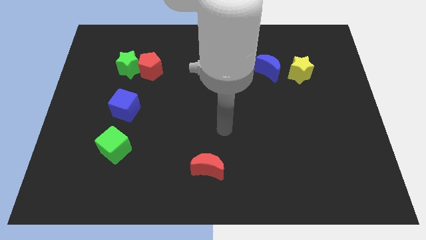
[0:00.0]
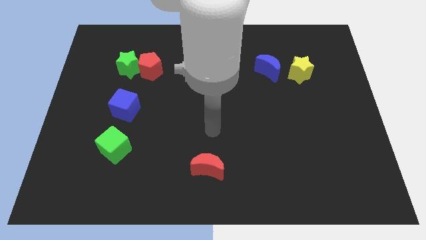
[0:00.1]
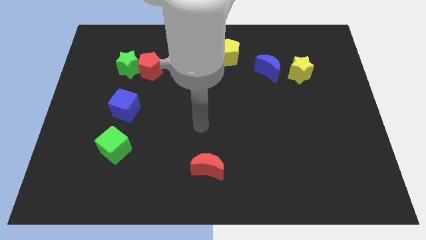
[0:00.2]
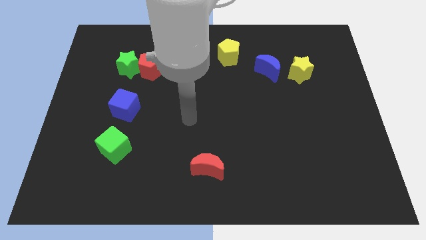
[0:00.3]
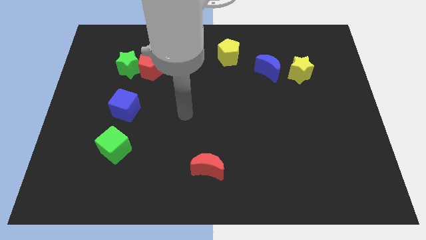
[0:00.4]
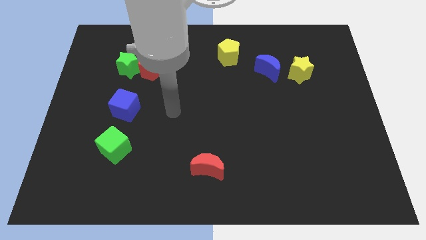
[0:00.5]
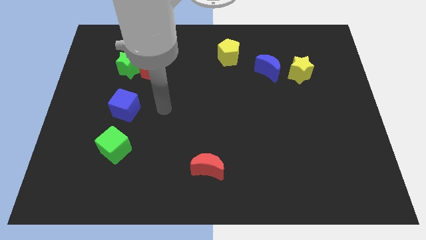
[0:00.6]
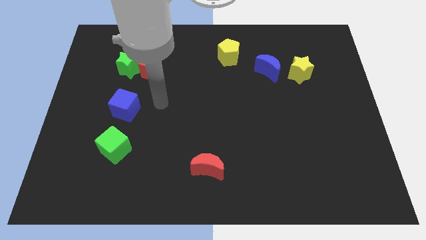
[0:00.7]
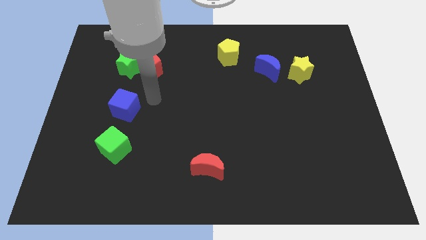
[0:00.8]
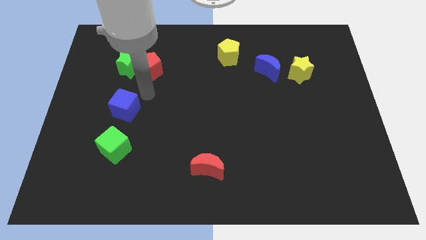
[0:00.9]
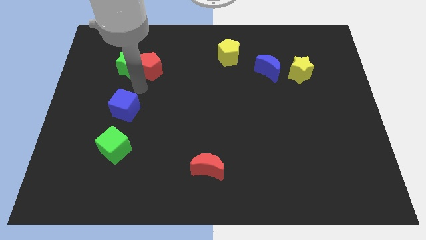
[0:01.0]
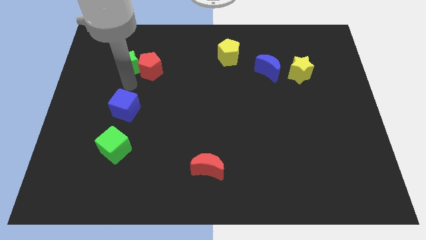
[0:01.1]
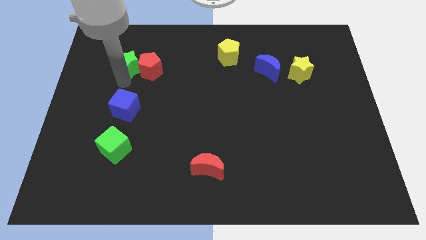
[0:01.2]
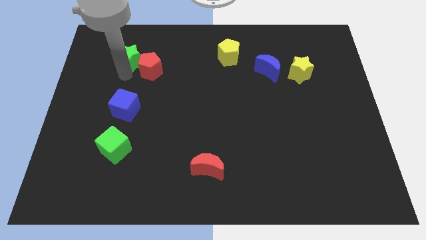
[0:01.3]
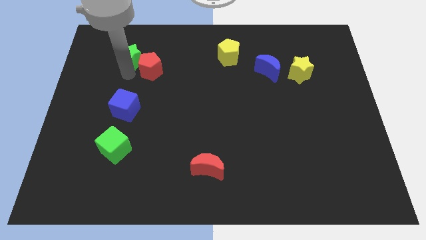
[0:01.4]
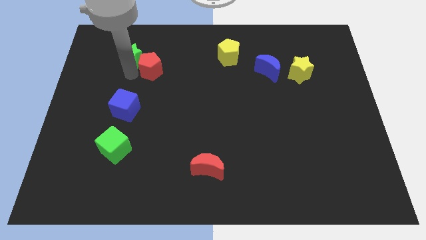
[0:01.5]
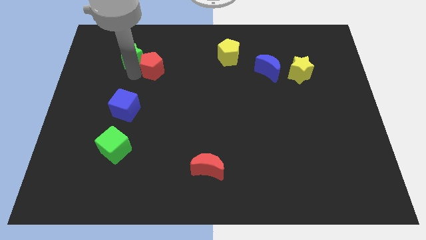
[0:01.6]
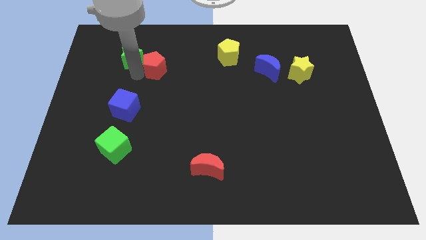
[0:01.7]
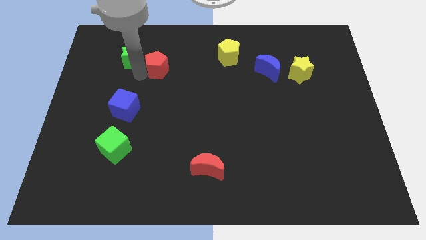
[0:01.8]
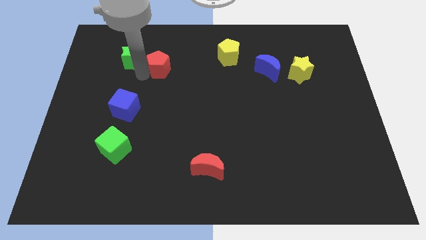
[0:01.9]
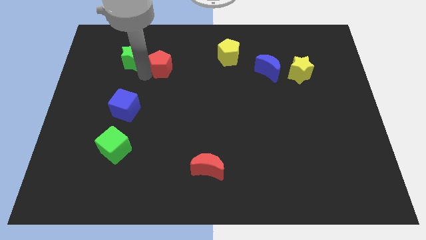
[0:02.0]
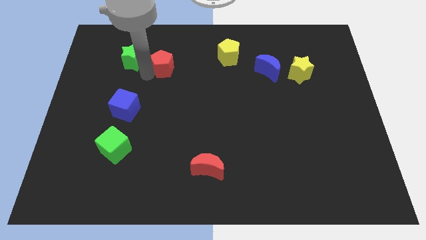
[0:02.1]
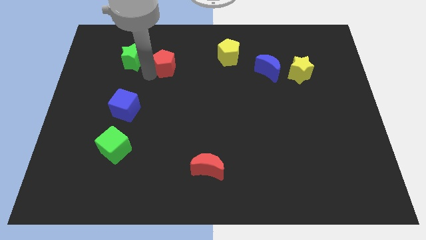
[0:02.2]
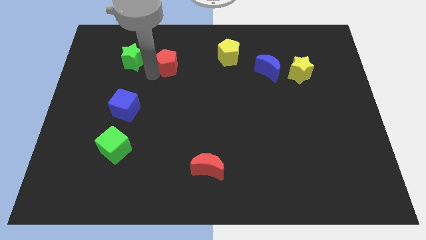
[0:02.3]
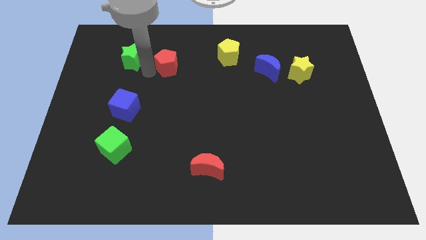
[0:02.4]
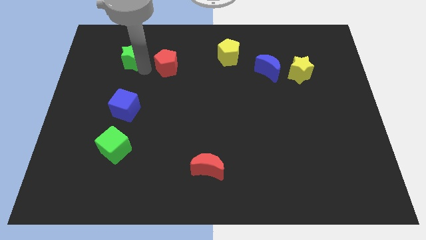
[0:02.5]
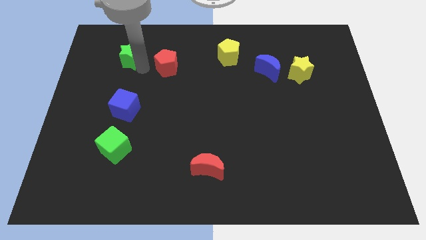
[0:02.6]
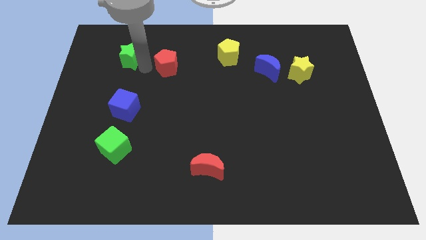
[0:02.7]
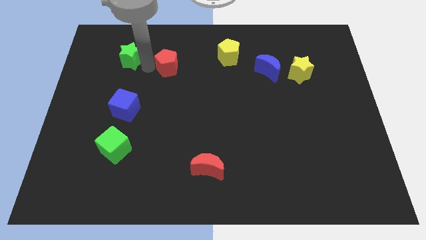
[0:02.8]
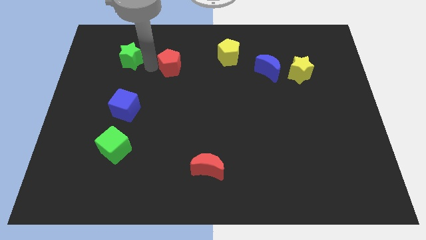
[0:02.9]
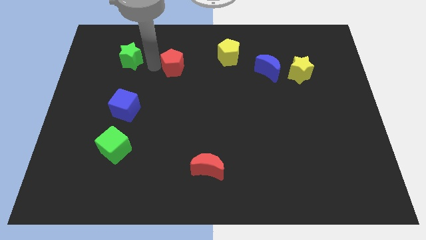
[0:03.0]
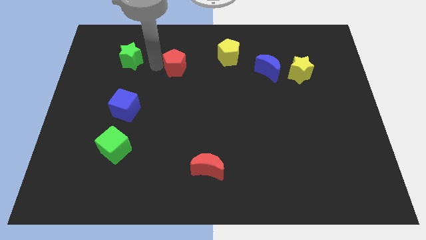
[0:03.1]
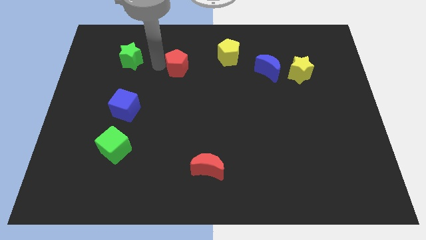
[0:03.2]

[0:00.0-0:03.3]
slide the red pentagon right slightly

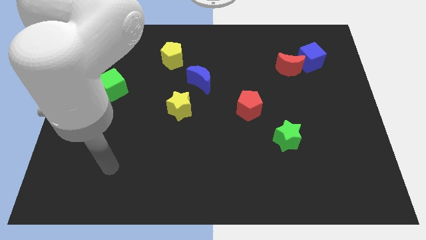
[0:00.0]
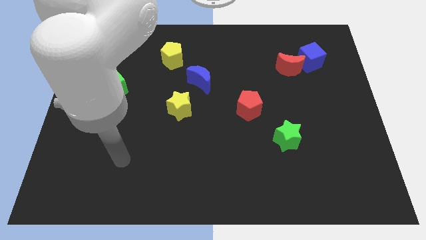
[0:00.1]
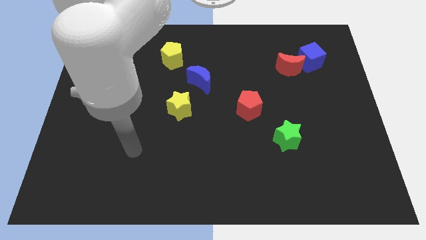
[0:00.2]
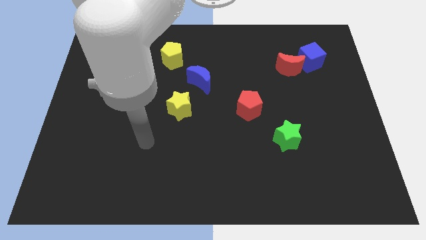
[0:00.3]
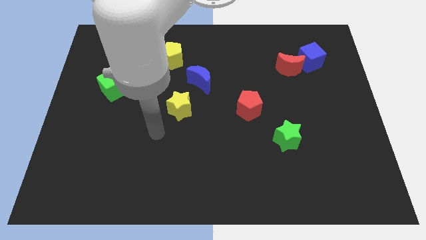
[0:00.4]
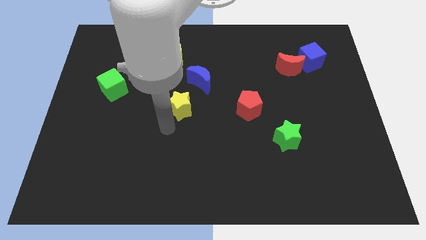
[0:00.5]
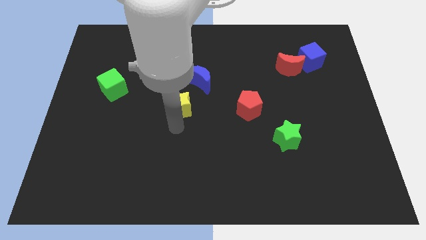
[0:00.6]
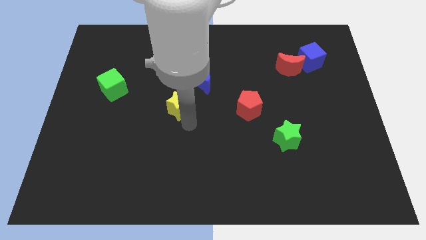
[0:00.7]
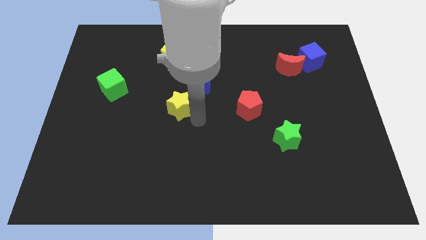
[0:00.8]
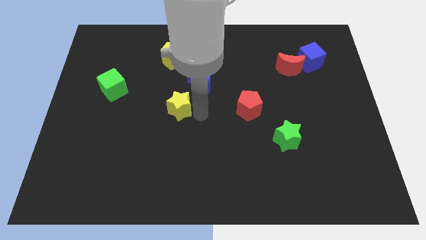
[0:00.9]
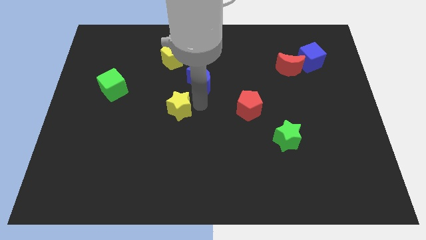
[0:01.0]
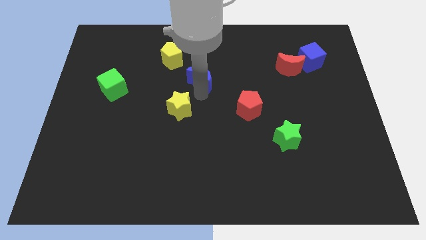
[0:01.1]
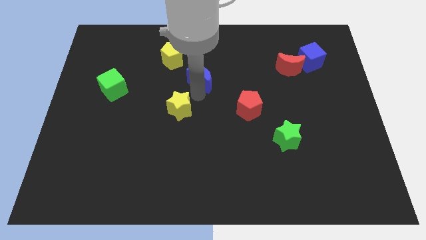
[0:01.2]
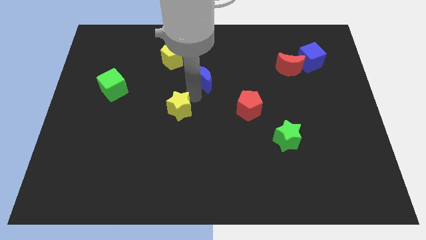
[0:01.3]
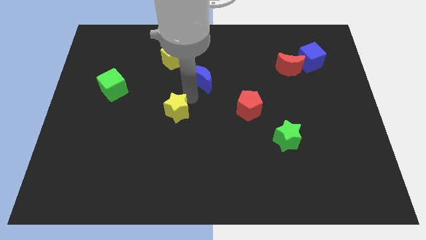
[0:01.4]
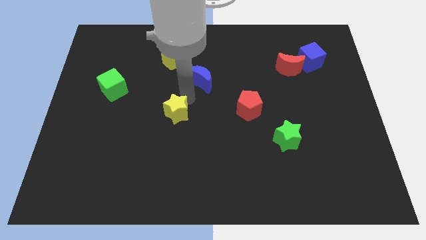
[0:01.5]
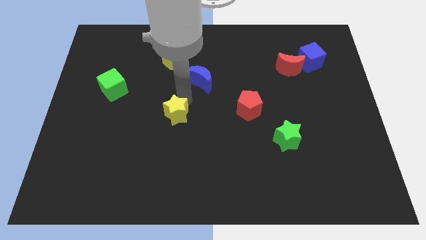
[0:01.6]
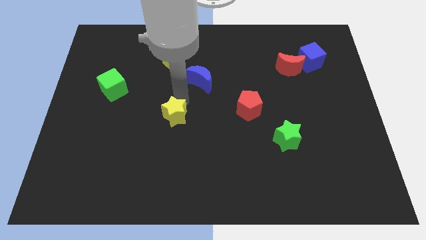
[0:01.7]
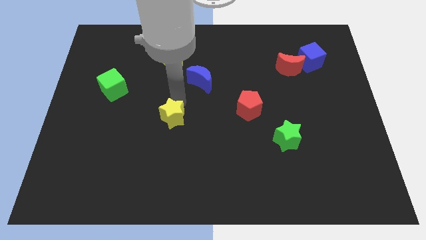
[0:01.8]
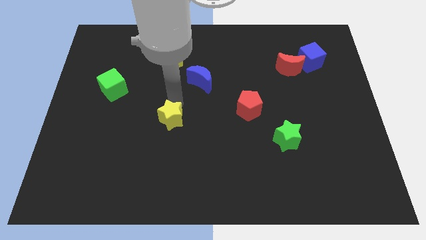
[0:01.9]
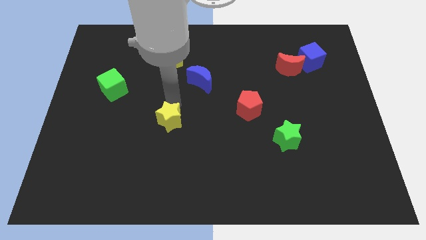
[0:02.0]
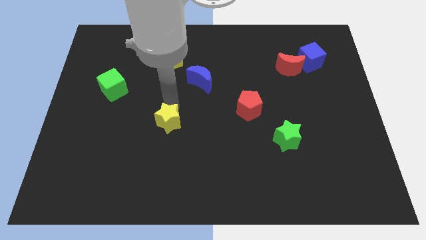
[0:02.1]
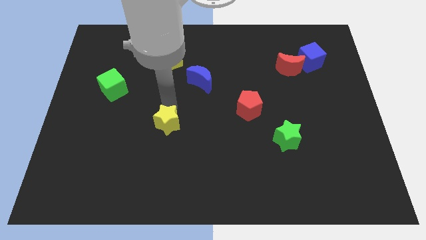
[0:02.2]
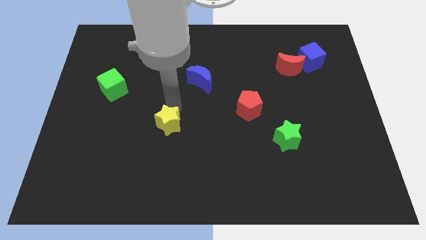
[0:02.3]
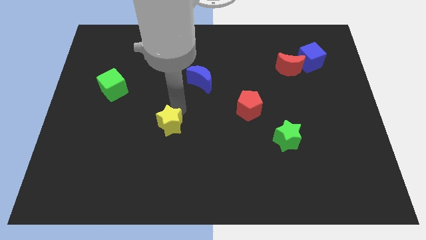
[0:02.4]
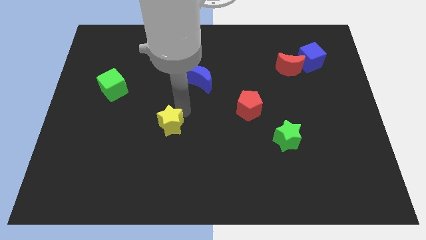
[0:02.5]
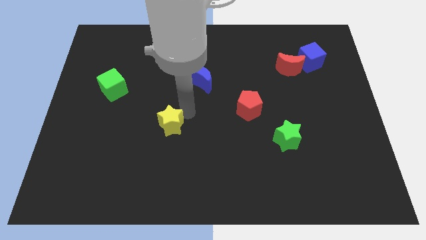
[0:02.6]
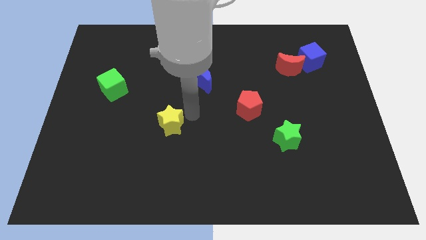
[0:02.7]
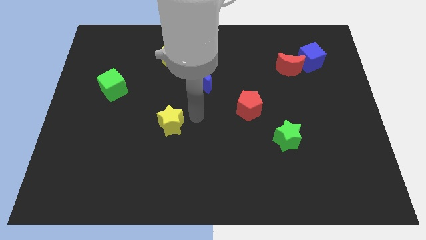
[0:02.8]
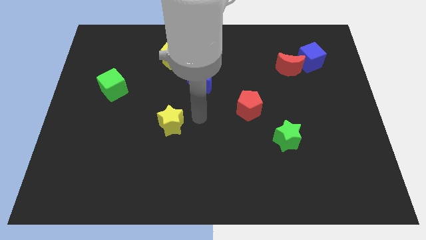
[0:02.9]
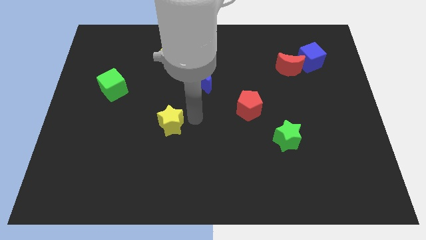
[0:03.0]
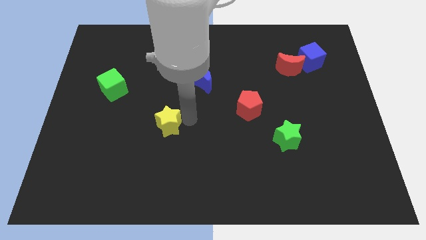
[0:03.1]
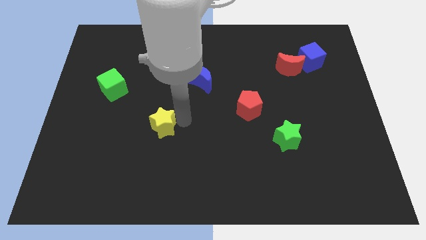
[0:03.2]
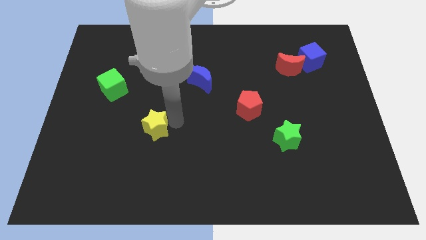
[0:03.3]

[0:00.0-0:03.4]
move the yellow star diagonally downwards and to the left a bit

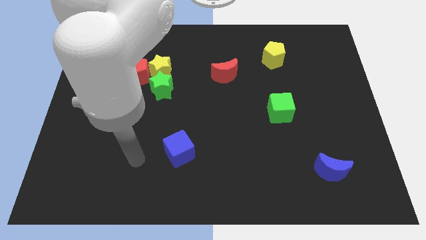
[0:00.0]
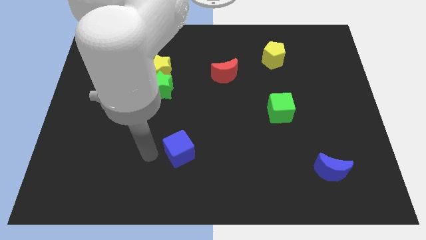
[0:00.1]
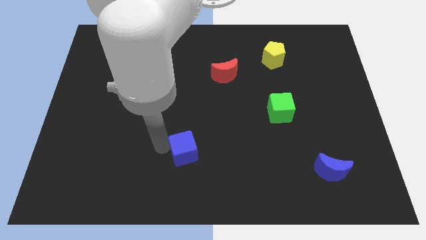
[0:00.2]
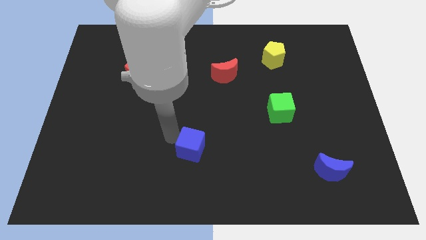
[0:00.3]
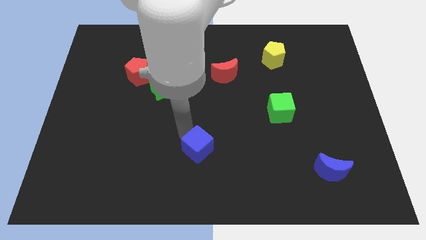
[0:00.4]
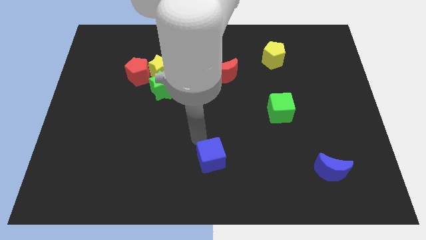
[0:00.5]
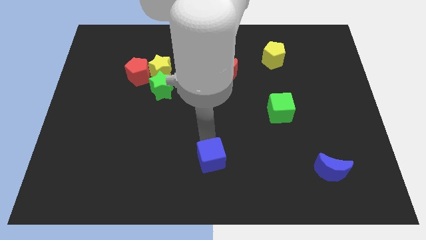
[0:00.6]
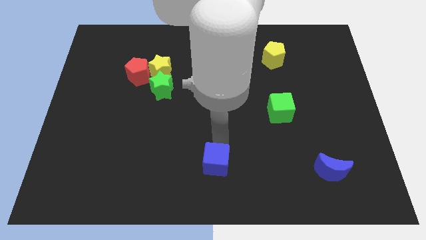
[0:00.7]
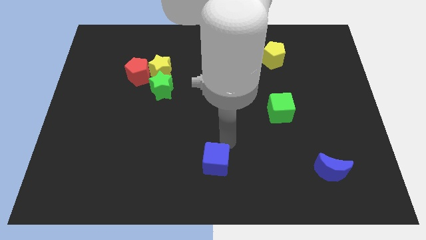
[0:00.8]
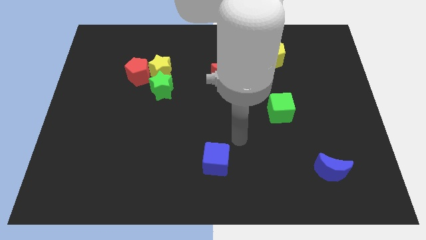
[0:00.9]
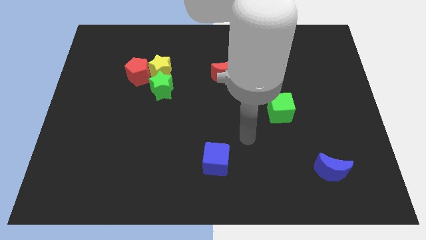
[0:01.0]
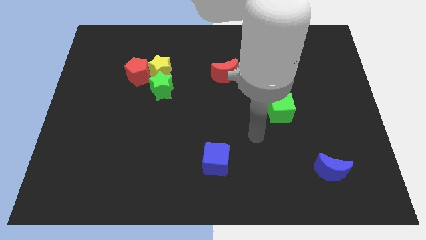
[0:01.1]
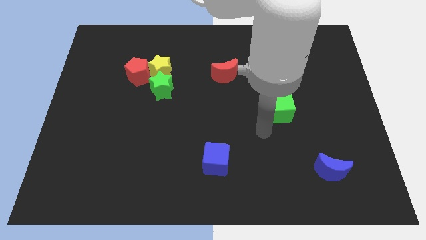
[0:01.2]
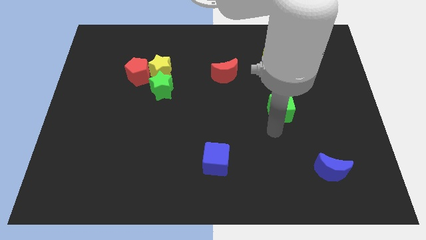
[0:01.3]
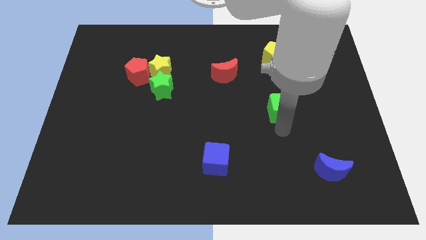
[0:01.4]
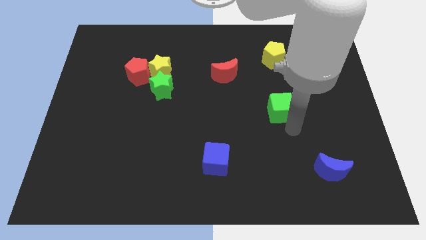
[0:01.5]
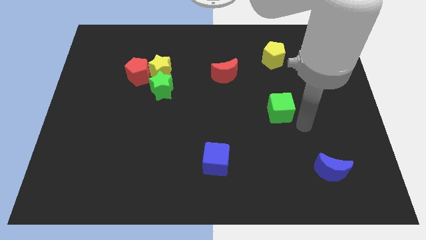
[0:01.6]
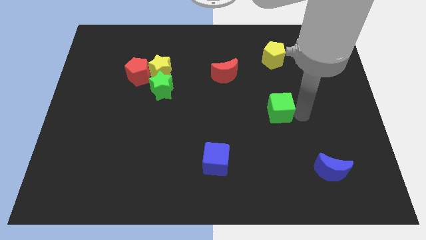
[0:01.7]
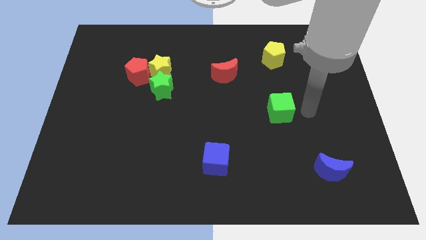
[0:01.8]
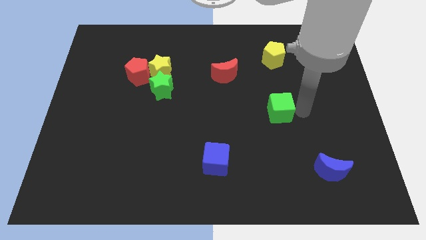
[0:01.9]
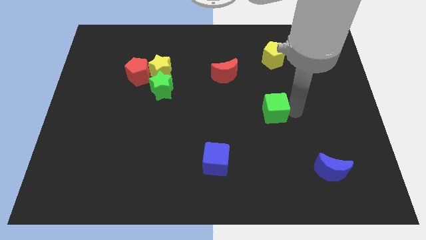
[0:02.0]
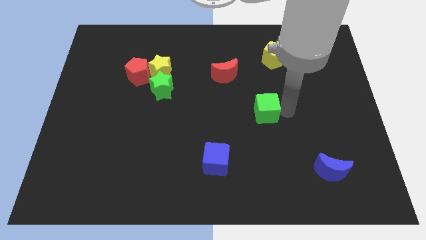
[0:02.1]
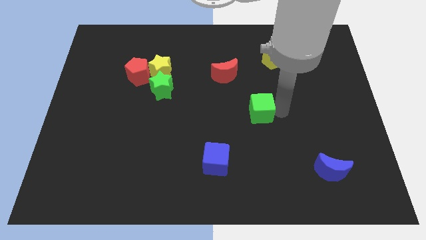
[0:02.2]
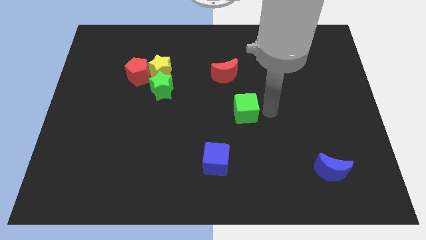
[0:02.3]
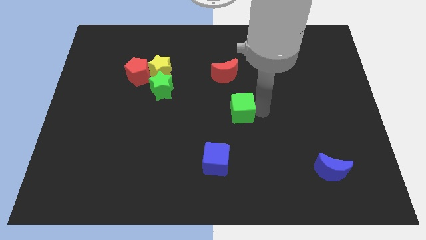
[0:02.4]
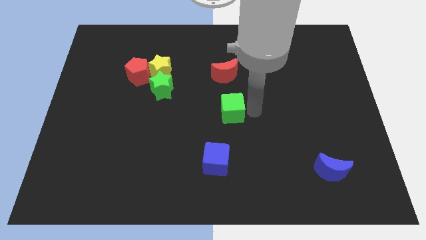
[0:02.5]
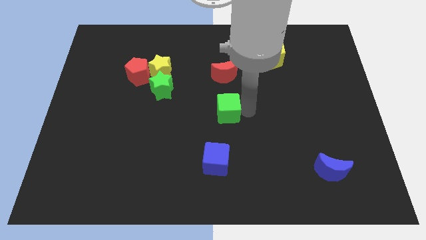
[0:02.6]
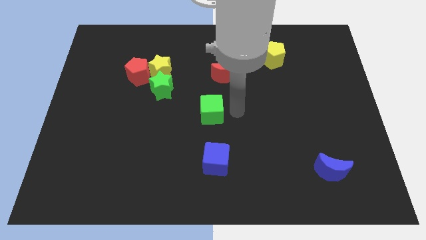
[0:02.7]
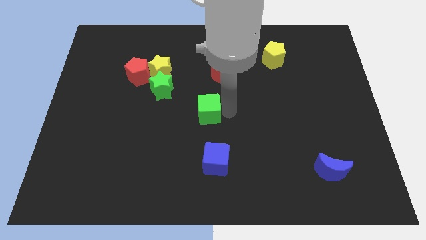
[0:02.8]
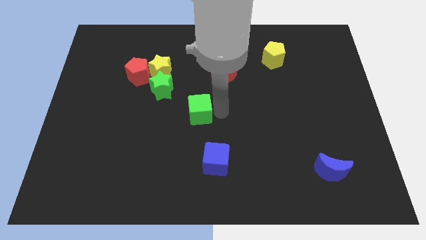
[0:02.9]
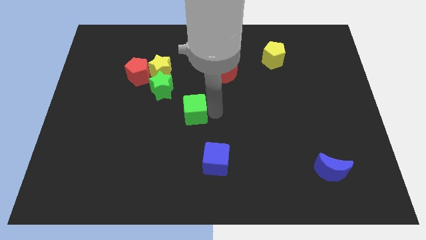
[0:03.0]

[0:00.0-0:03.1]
move the green cube left
